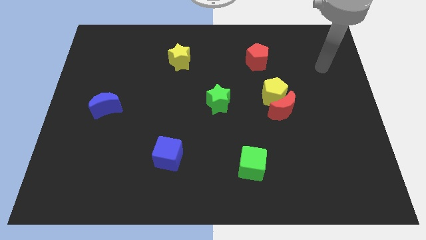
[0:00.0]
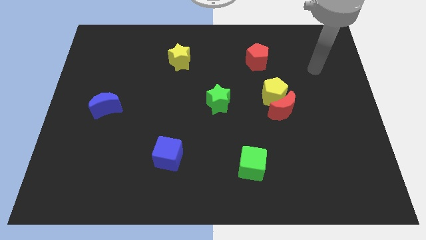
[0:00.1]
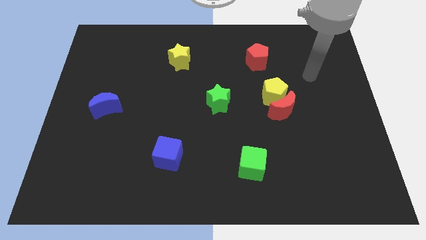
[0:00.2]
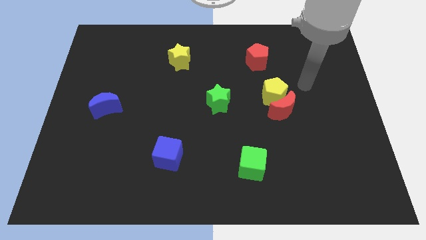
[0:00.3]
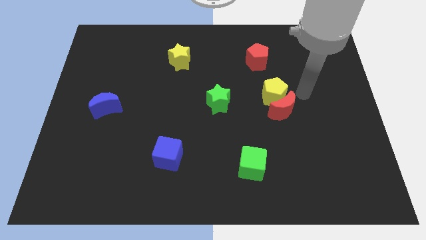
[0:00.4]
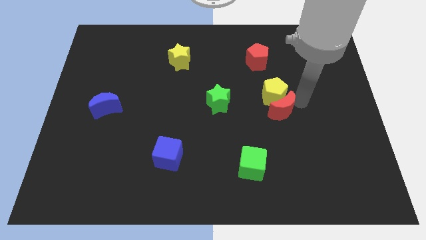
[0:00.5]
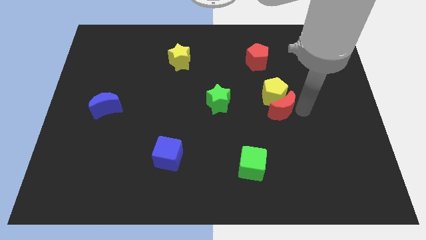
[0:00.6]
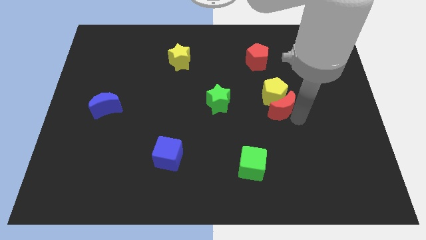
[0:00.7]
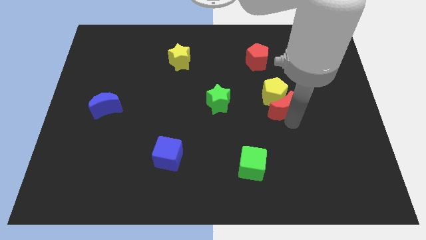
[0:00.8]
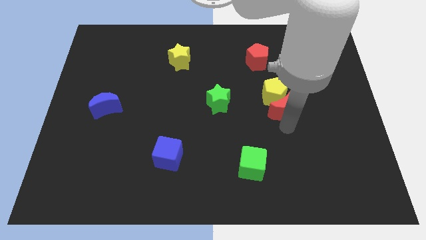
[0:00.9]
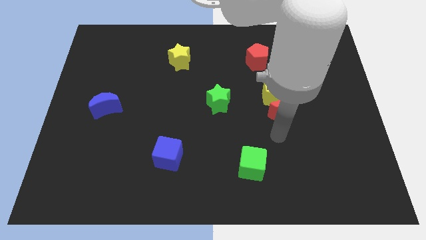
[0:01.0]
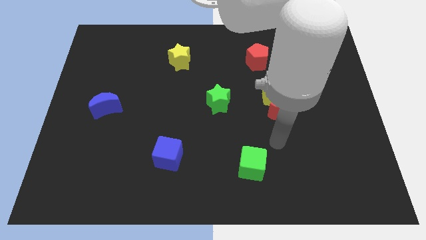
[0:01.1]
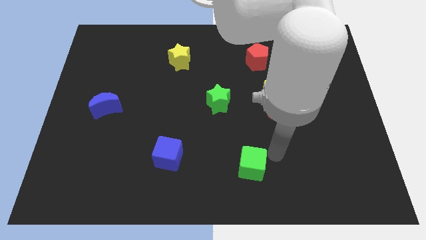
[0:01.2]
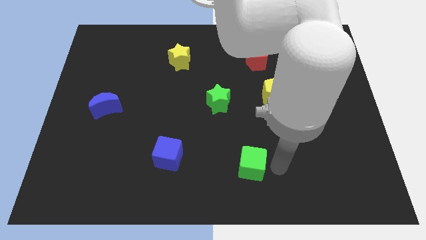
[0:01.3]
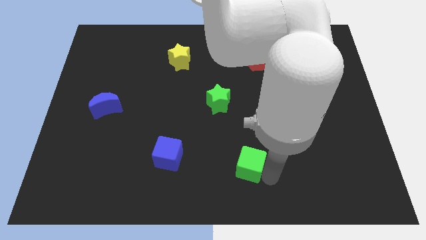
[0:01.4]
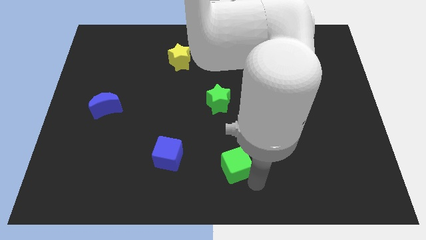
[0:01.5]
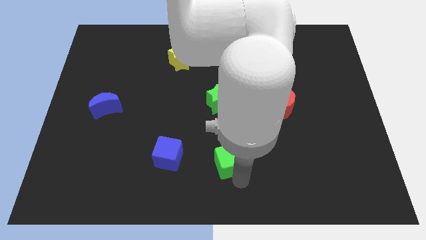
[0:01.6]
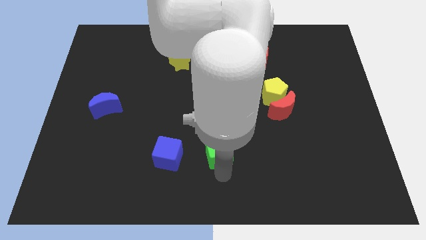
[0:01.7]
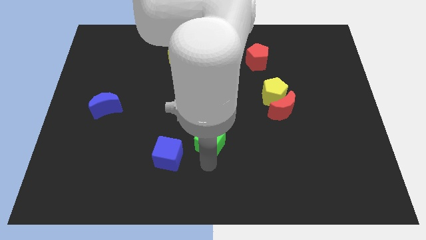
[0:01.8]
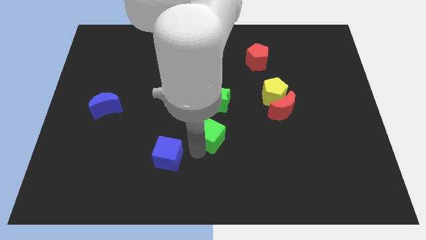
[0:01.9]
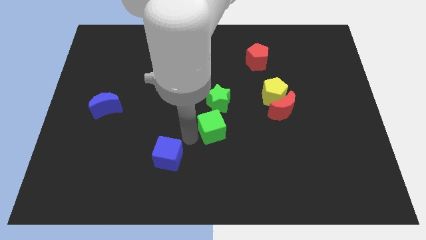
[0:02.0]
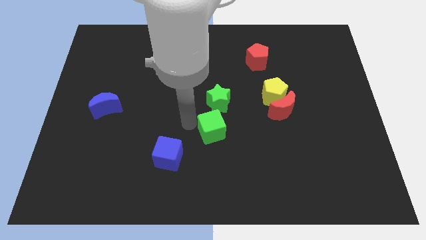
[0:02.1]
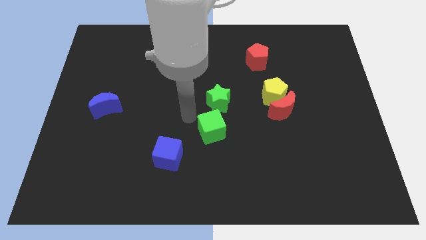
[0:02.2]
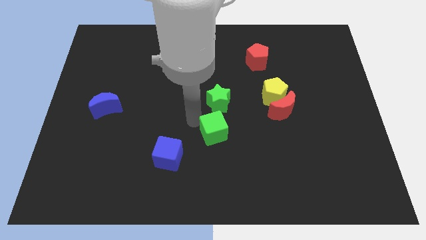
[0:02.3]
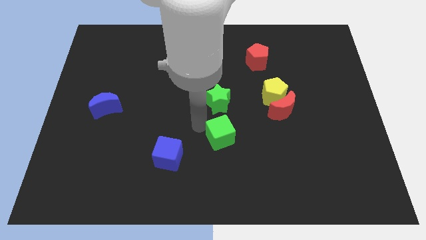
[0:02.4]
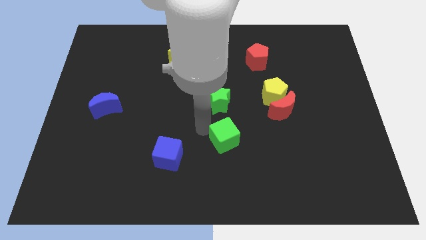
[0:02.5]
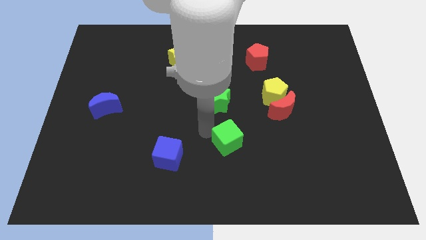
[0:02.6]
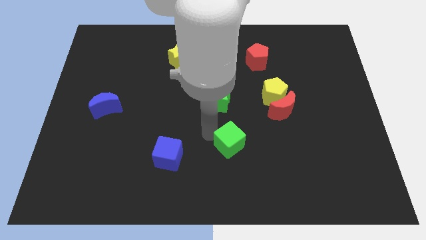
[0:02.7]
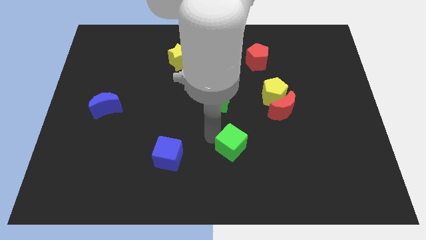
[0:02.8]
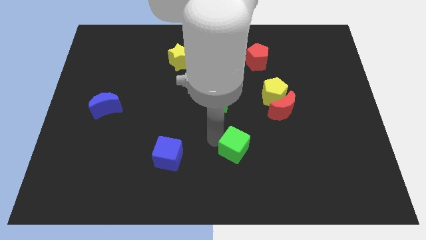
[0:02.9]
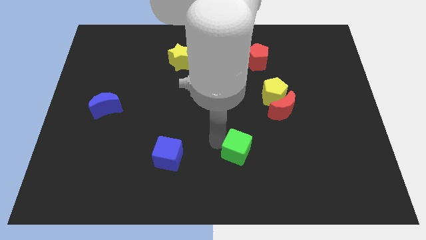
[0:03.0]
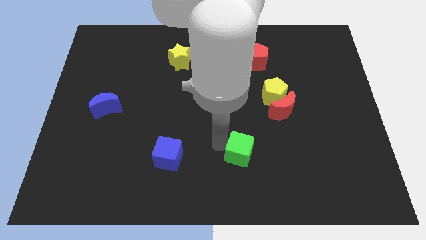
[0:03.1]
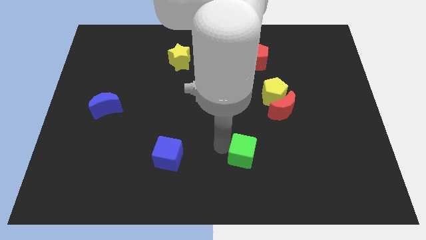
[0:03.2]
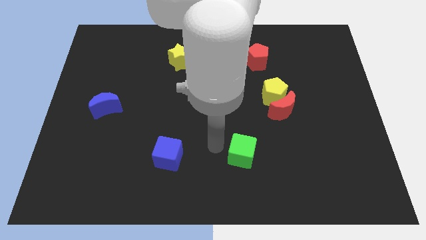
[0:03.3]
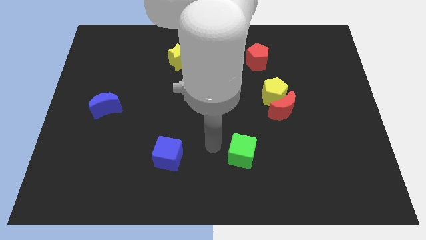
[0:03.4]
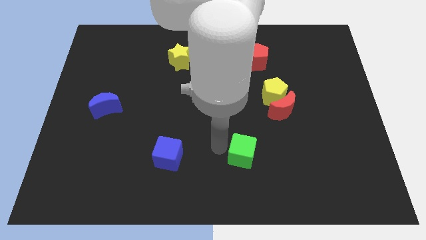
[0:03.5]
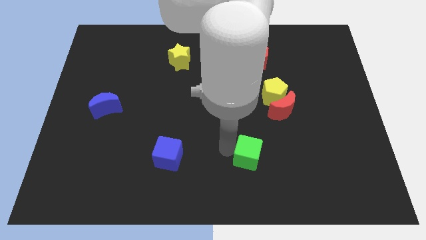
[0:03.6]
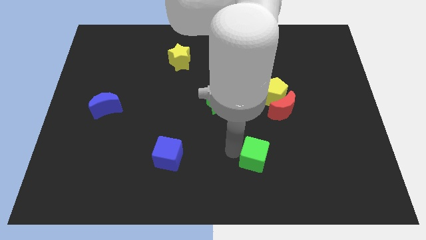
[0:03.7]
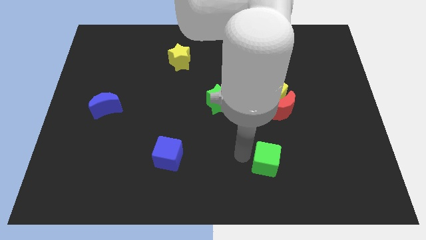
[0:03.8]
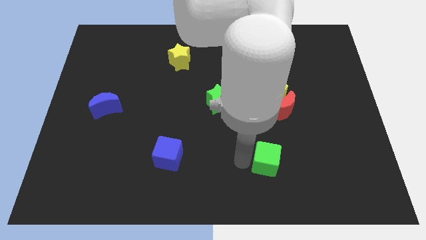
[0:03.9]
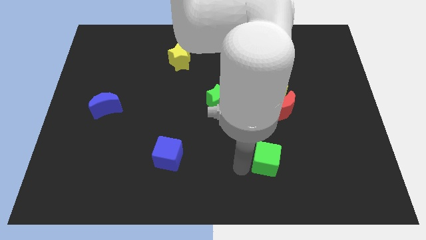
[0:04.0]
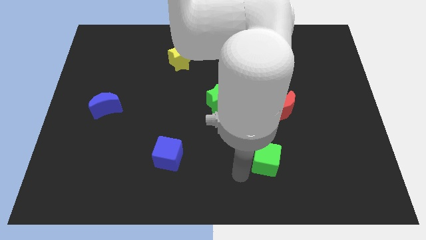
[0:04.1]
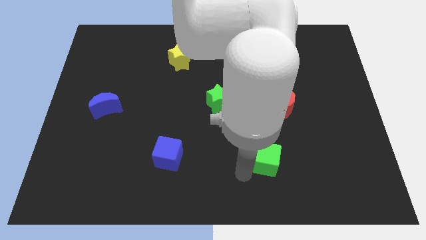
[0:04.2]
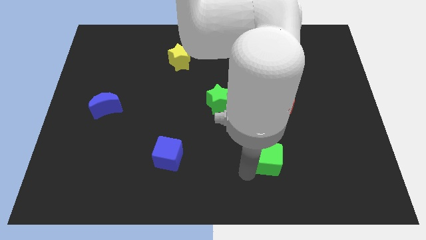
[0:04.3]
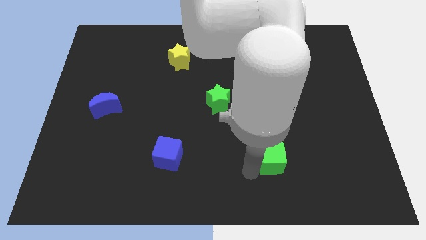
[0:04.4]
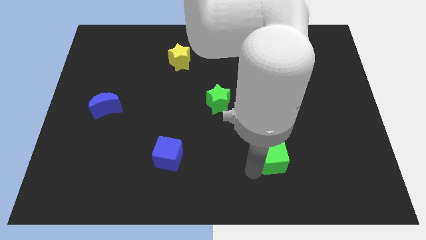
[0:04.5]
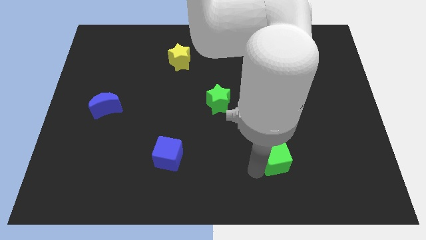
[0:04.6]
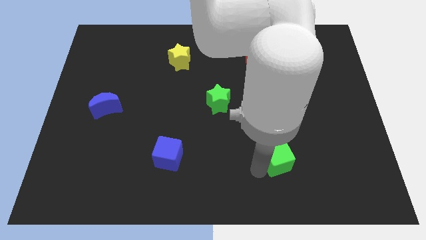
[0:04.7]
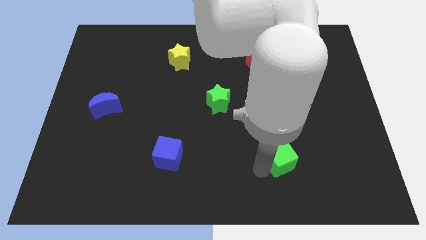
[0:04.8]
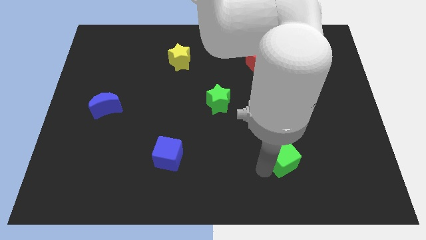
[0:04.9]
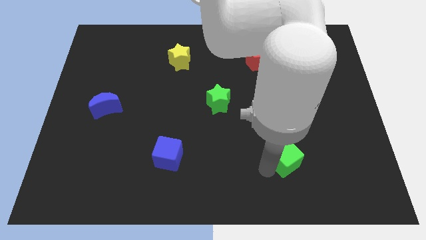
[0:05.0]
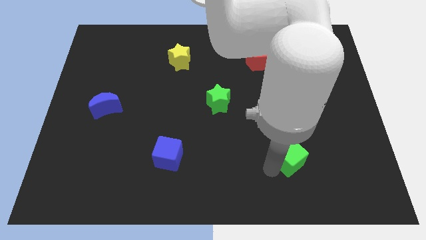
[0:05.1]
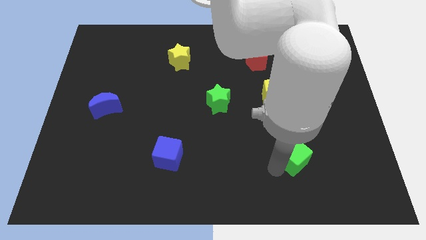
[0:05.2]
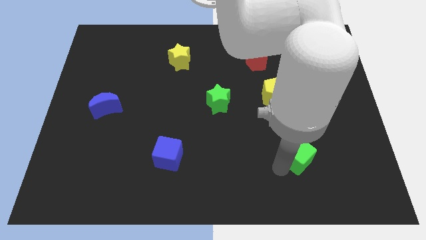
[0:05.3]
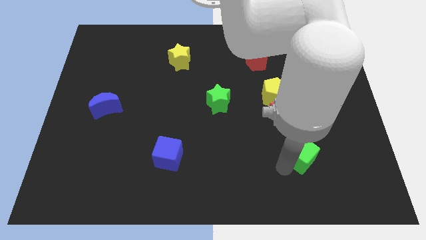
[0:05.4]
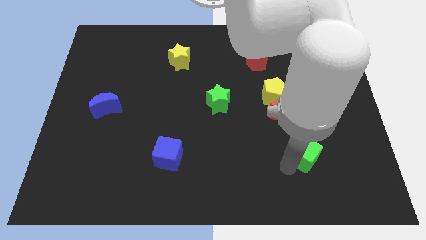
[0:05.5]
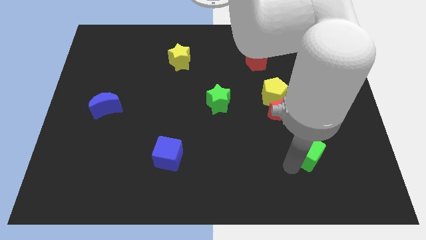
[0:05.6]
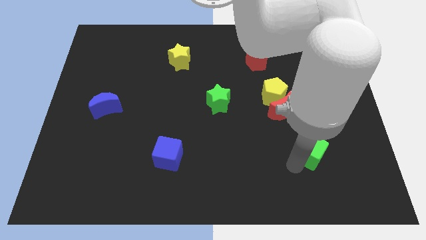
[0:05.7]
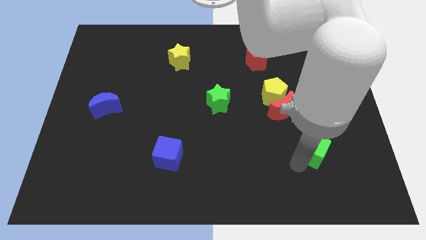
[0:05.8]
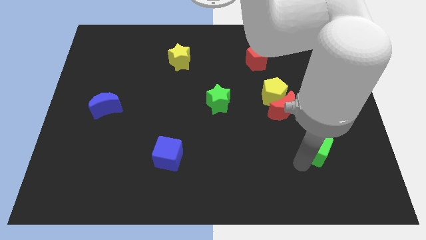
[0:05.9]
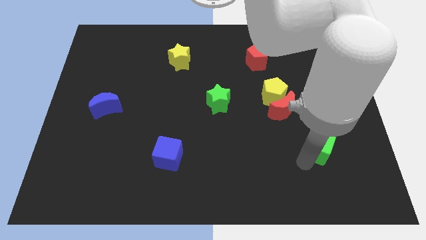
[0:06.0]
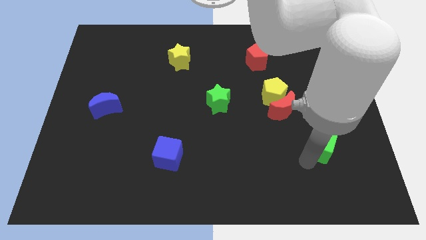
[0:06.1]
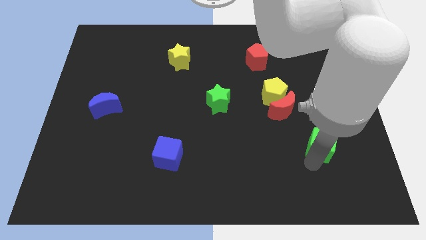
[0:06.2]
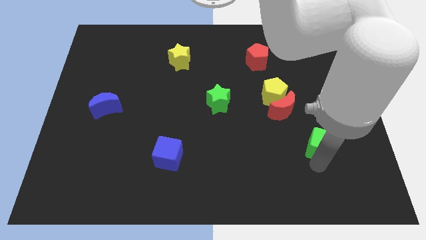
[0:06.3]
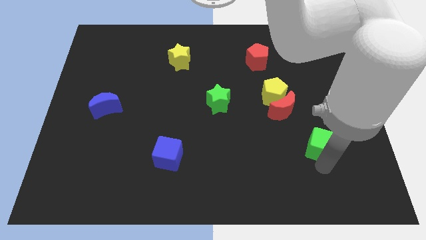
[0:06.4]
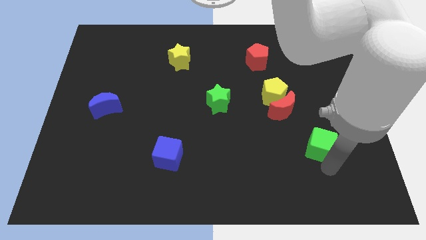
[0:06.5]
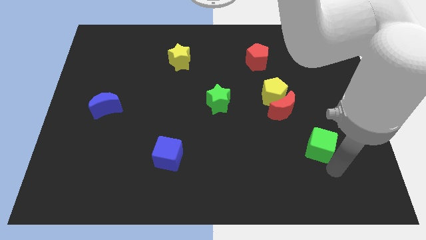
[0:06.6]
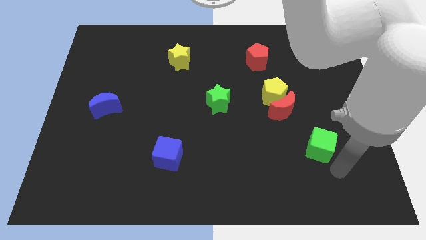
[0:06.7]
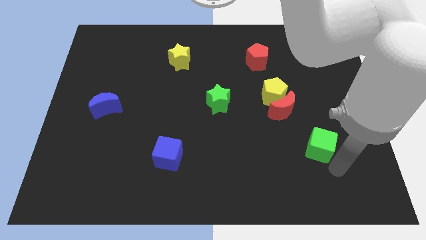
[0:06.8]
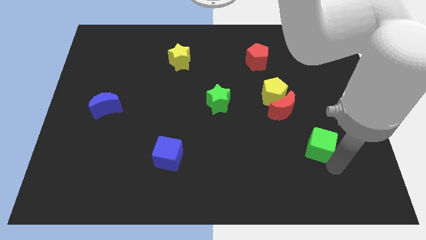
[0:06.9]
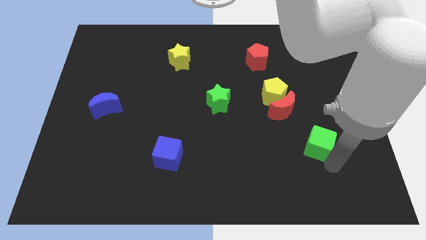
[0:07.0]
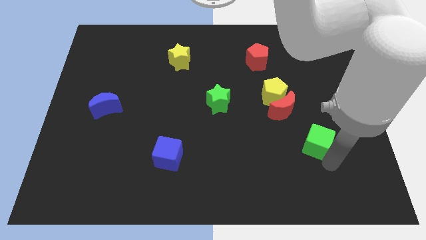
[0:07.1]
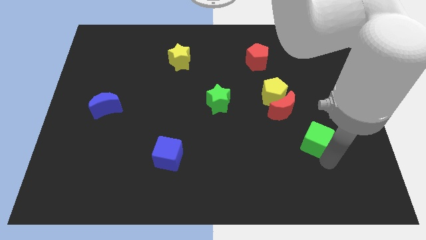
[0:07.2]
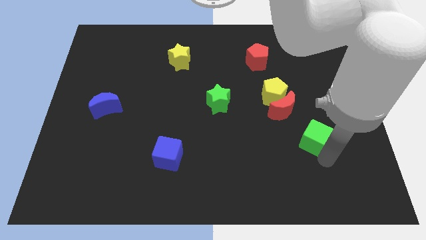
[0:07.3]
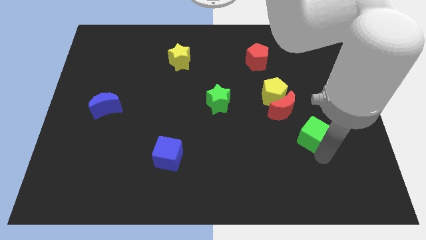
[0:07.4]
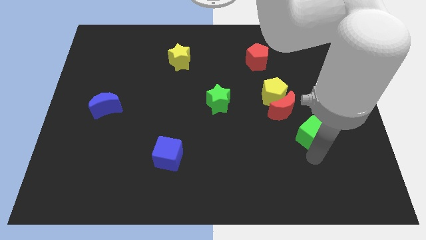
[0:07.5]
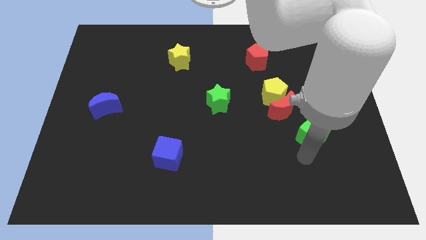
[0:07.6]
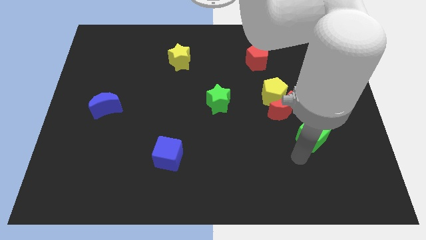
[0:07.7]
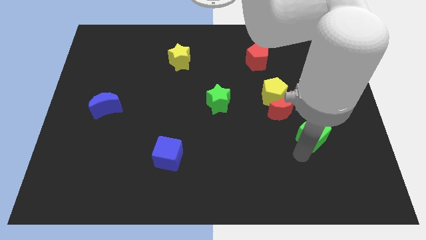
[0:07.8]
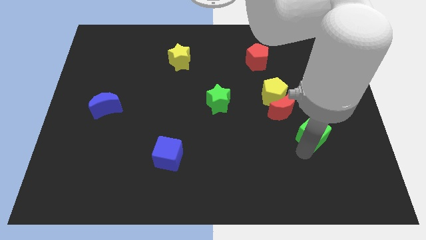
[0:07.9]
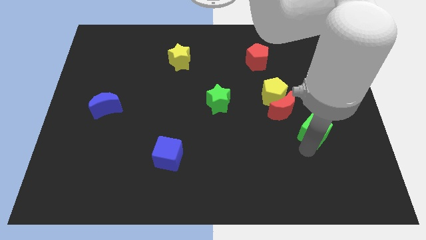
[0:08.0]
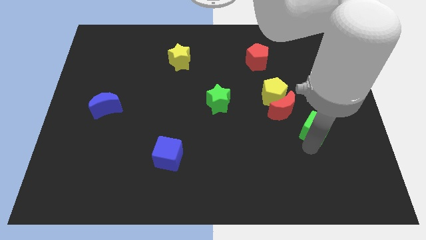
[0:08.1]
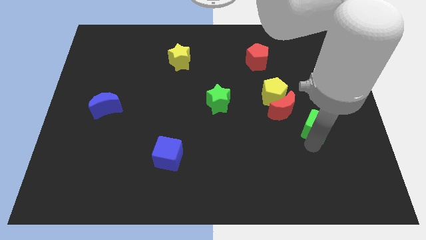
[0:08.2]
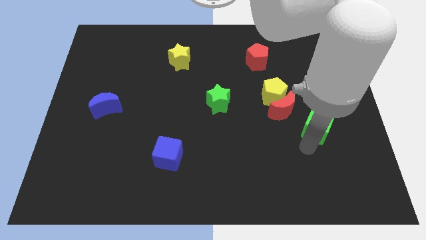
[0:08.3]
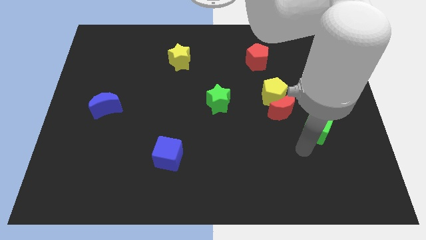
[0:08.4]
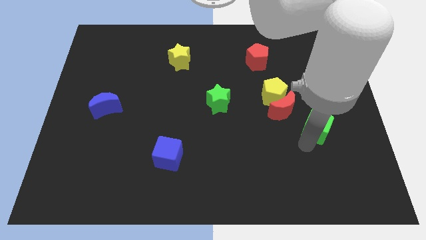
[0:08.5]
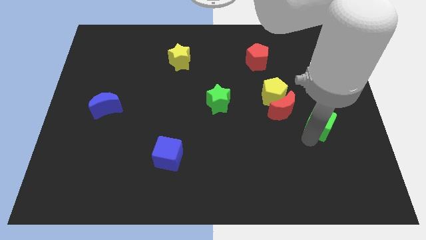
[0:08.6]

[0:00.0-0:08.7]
put the green cube to the right of the red moon
